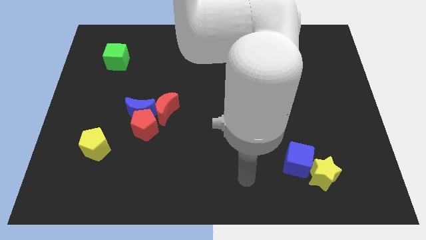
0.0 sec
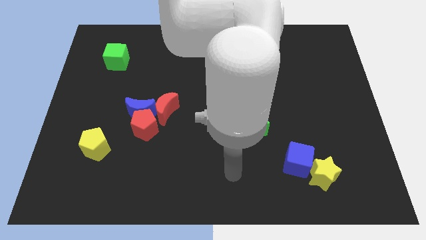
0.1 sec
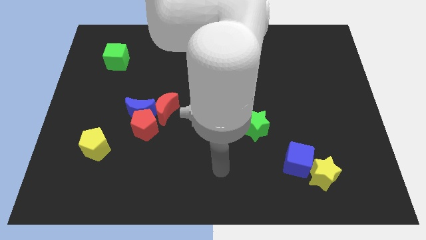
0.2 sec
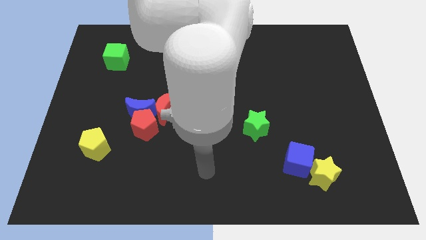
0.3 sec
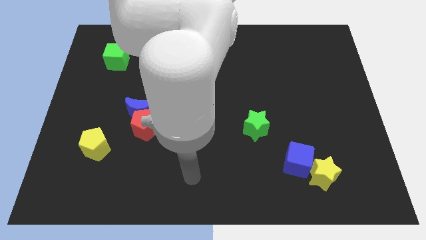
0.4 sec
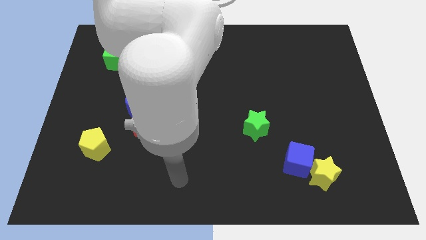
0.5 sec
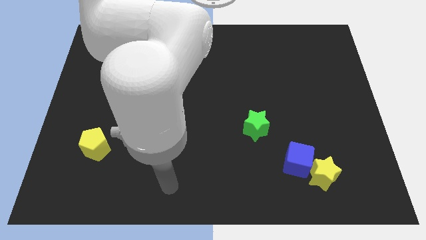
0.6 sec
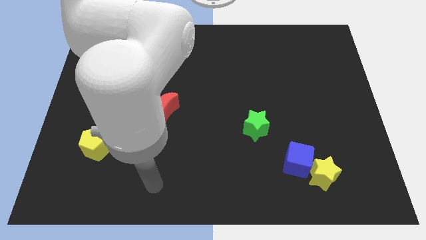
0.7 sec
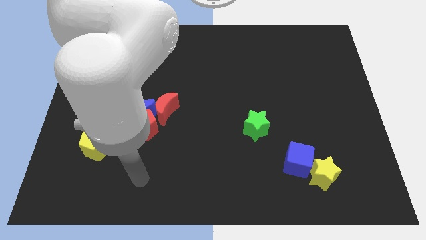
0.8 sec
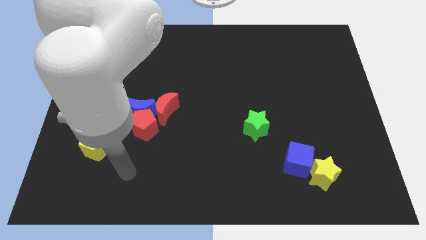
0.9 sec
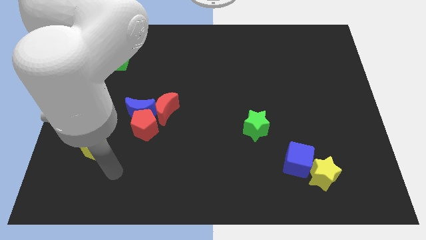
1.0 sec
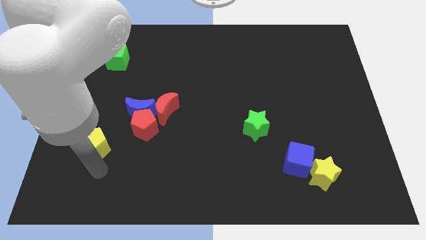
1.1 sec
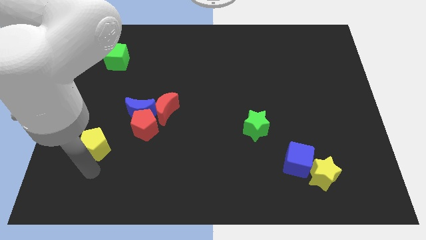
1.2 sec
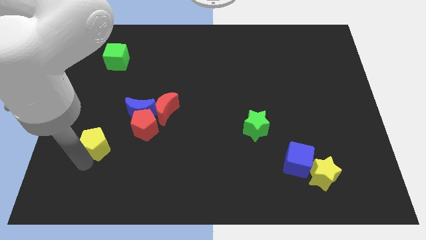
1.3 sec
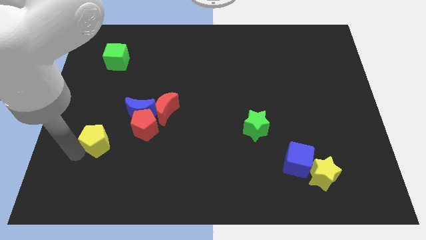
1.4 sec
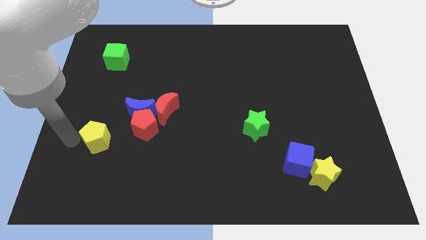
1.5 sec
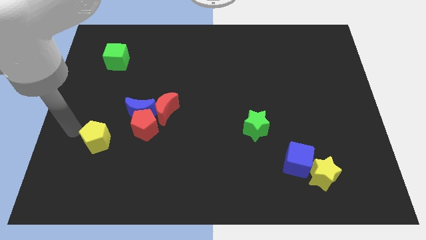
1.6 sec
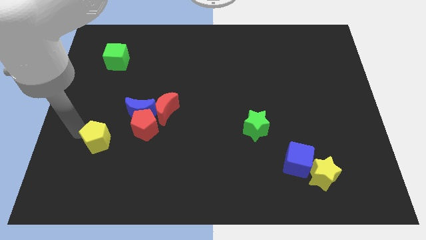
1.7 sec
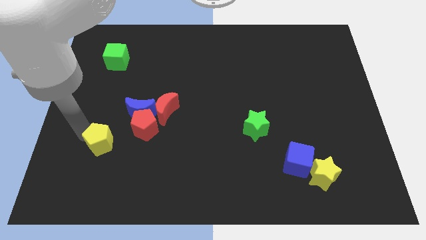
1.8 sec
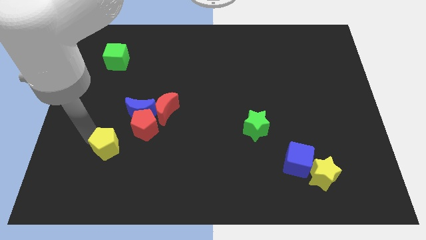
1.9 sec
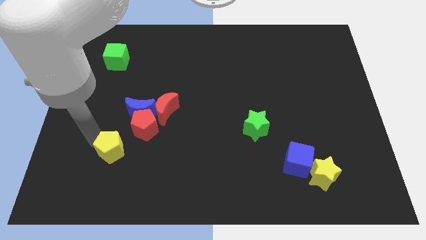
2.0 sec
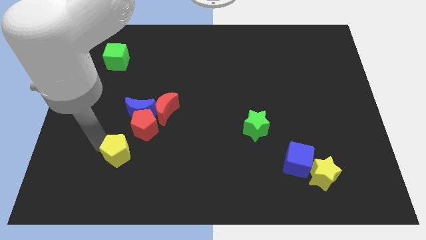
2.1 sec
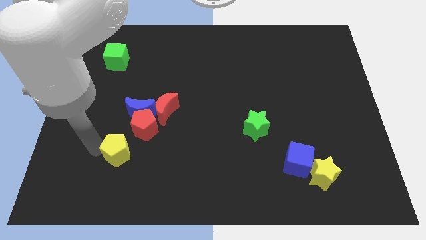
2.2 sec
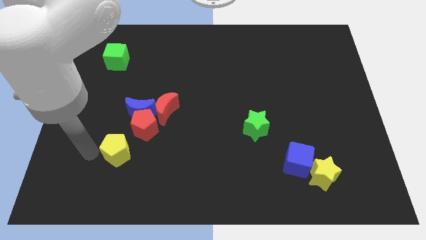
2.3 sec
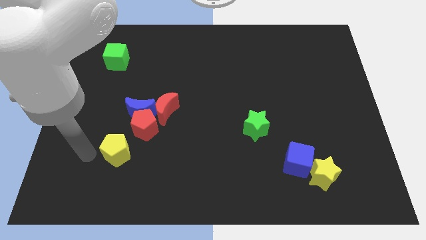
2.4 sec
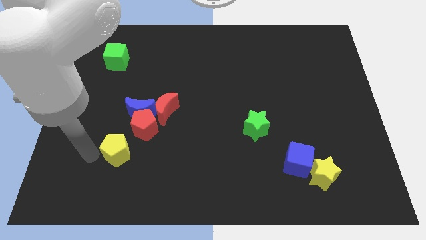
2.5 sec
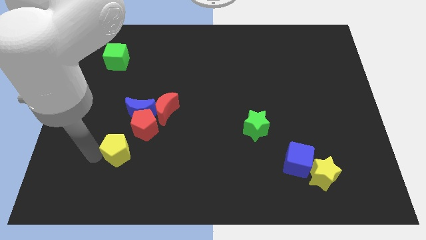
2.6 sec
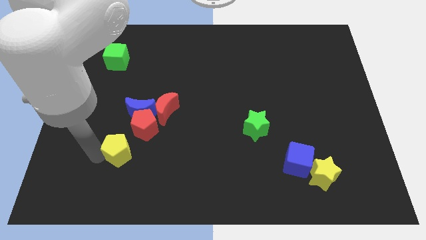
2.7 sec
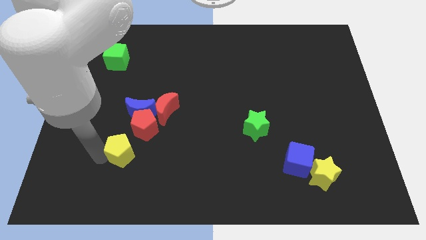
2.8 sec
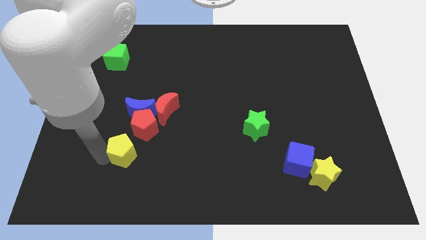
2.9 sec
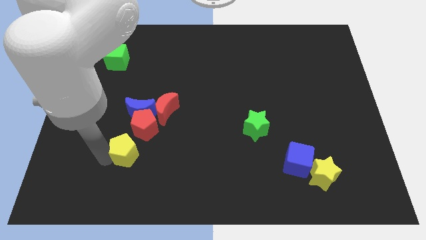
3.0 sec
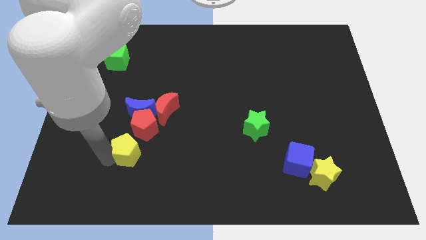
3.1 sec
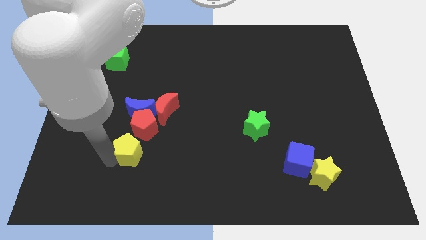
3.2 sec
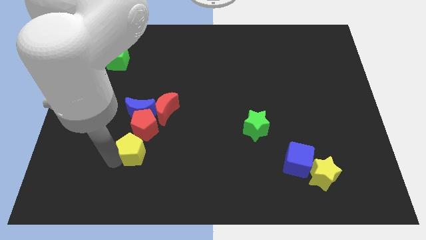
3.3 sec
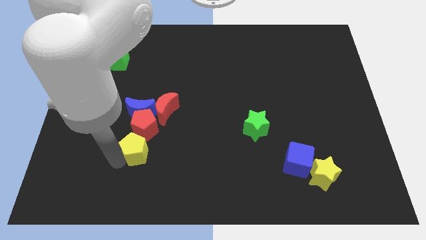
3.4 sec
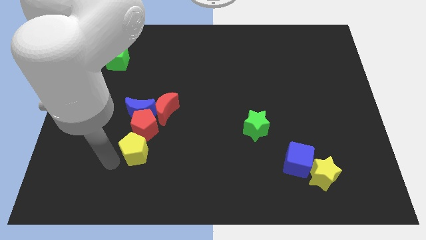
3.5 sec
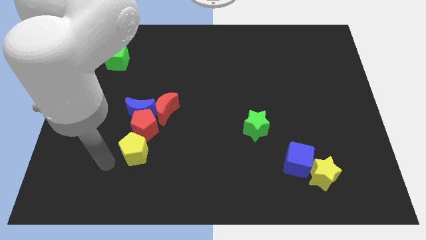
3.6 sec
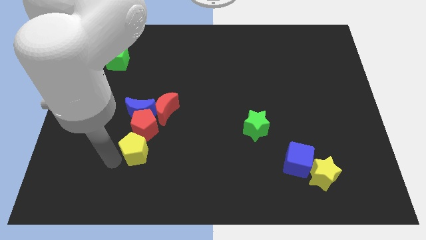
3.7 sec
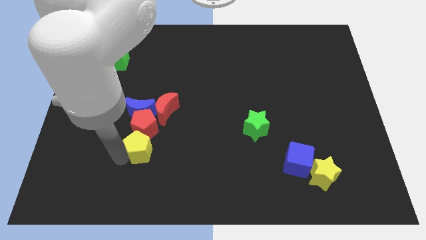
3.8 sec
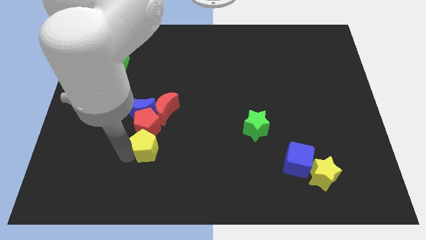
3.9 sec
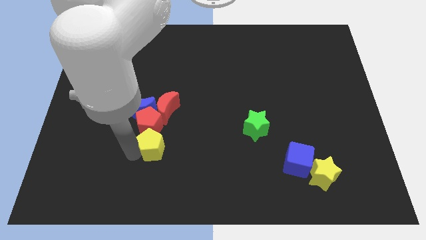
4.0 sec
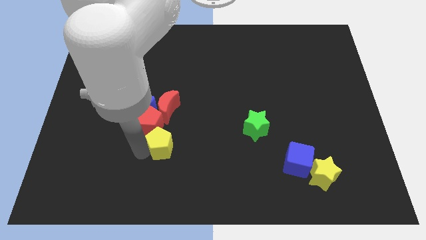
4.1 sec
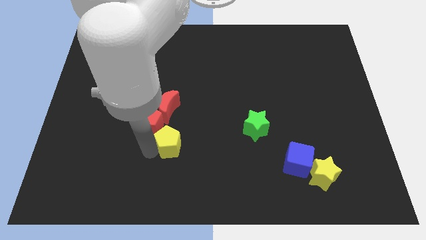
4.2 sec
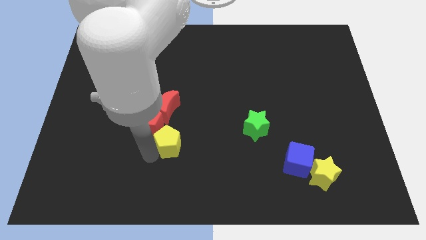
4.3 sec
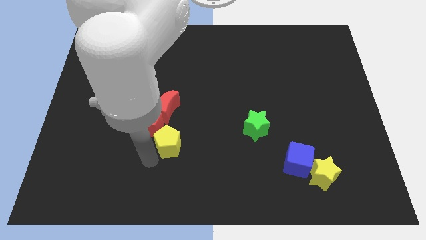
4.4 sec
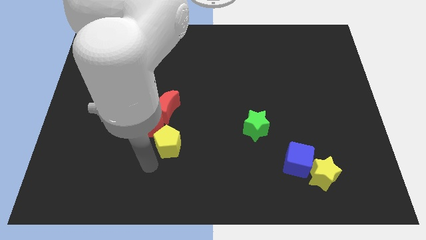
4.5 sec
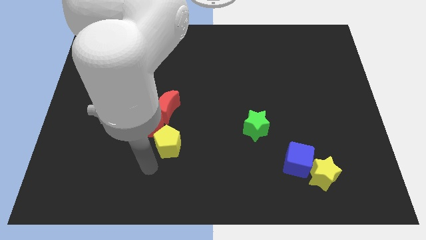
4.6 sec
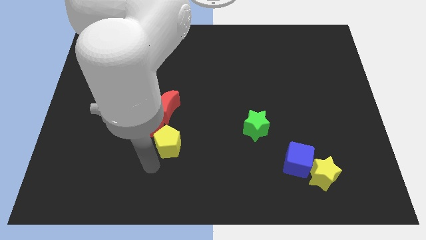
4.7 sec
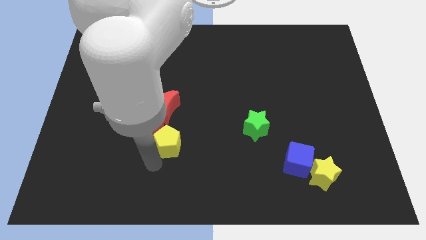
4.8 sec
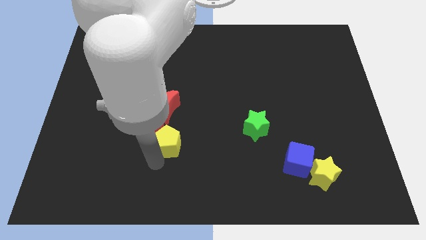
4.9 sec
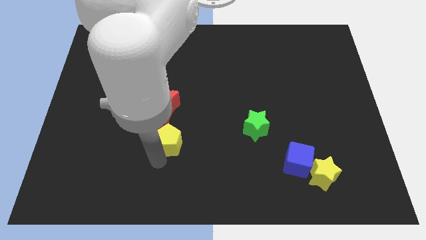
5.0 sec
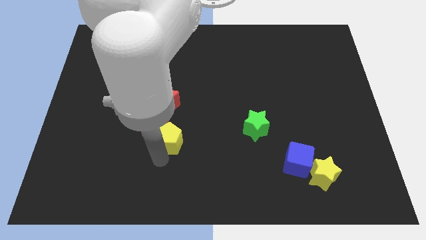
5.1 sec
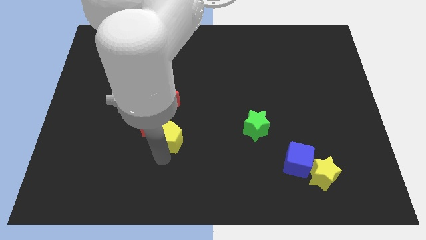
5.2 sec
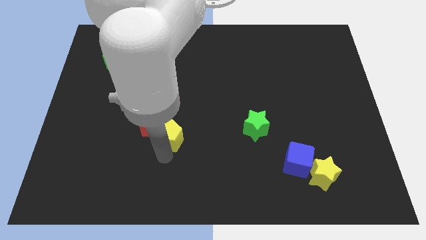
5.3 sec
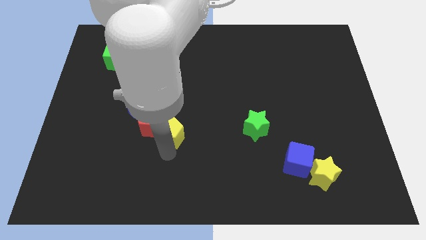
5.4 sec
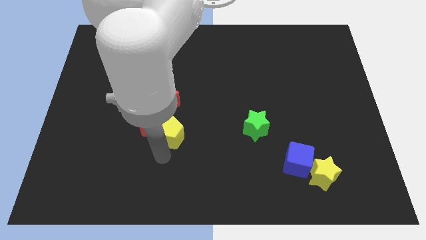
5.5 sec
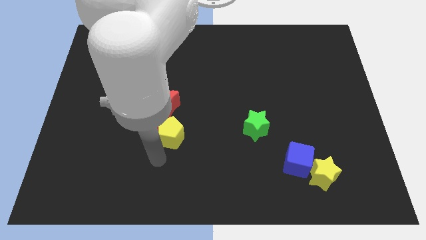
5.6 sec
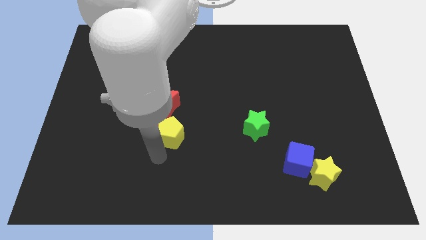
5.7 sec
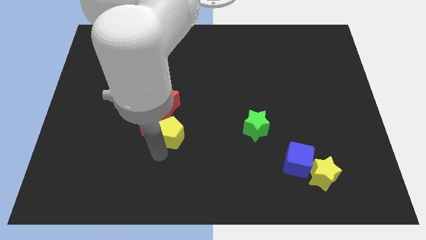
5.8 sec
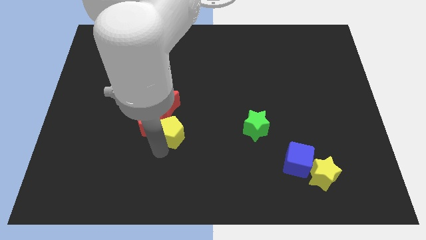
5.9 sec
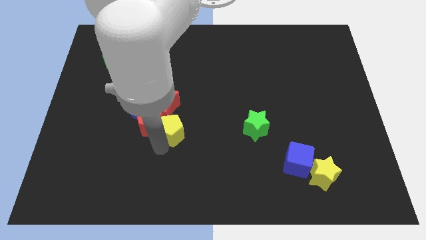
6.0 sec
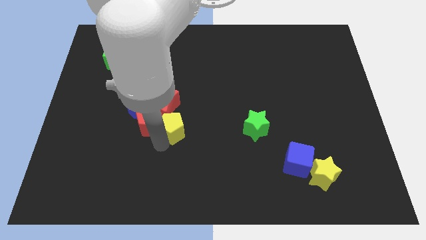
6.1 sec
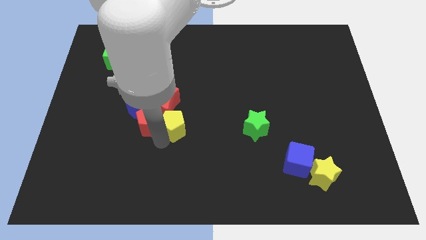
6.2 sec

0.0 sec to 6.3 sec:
push the yellow pentagon to the right side of the blue moon
